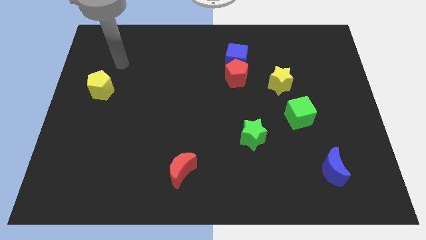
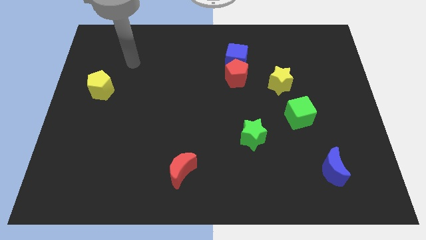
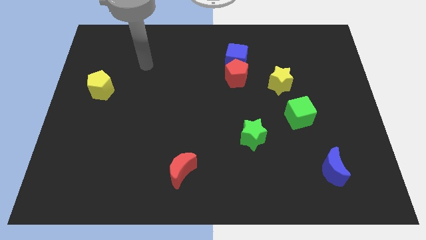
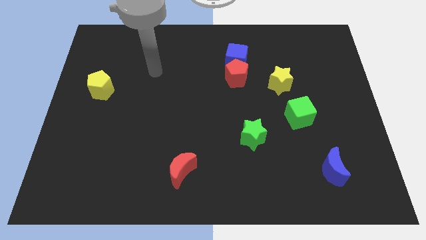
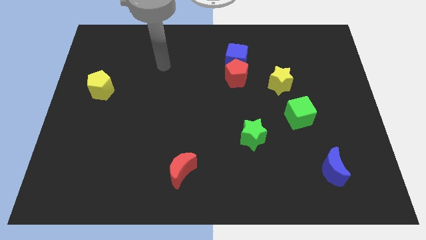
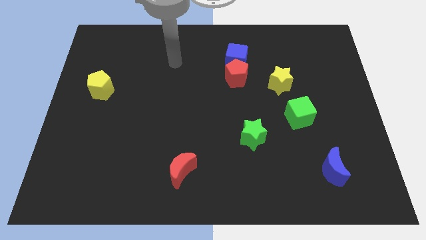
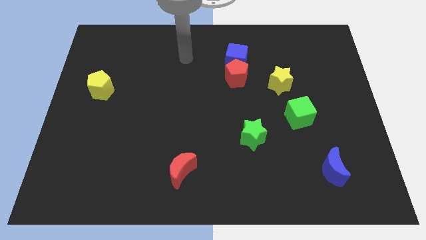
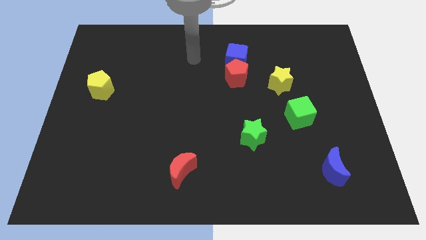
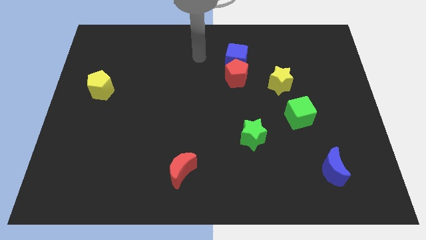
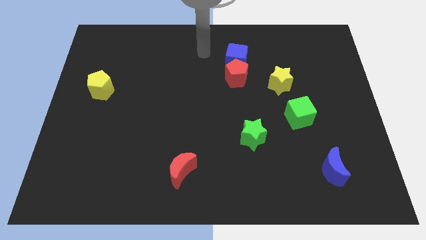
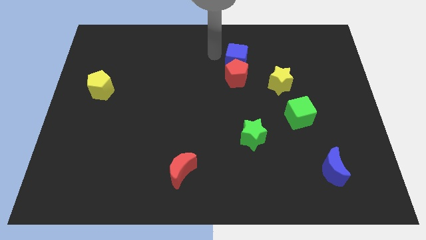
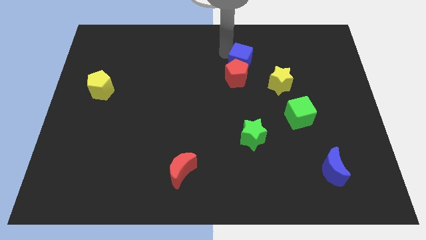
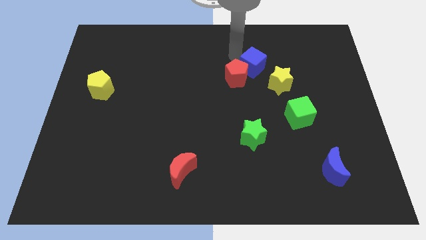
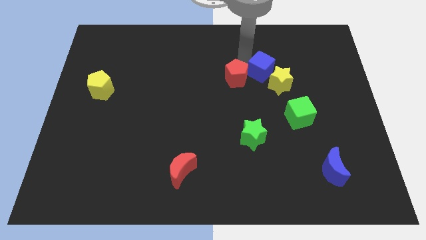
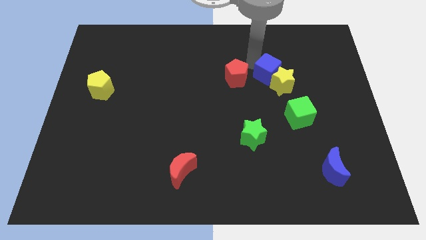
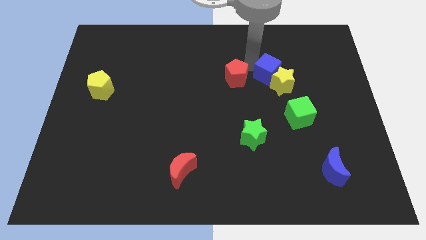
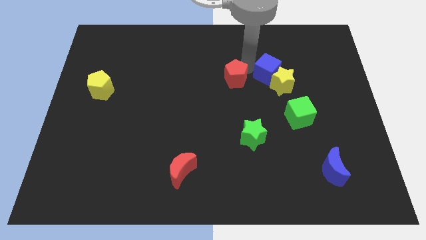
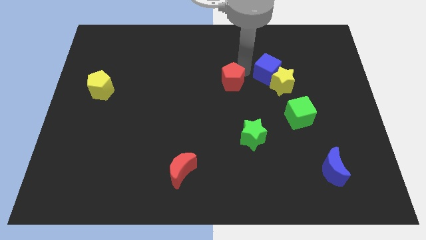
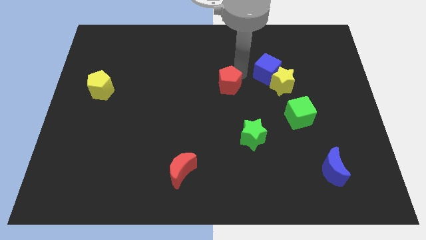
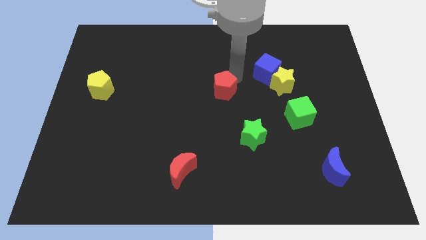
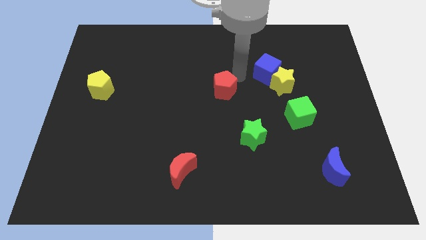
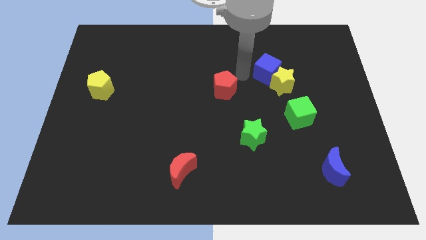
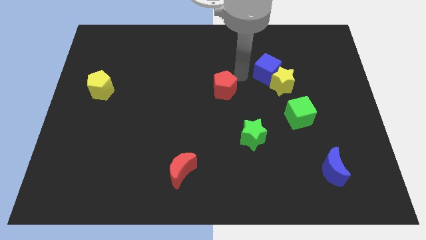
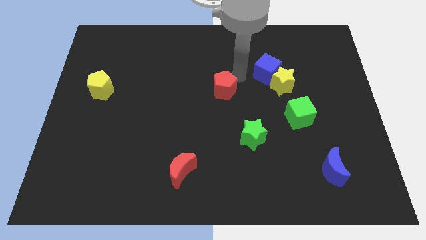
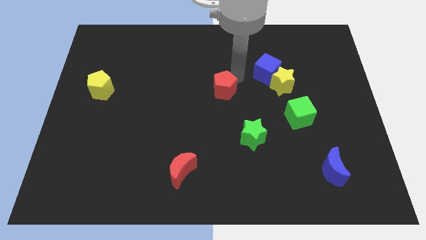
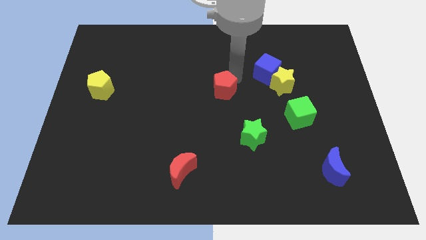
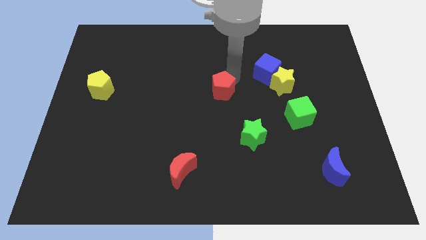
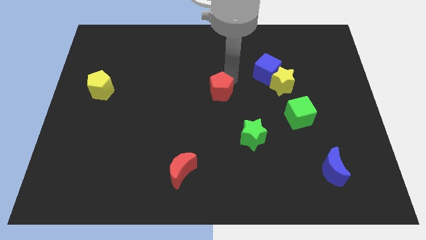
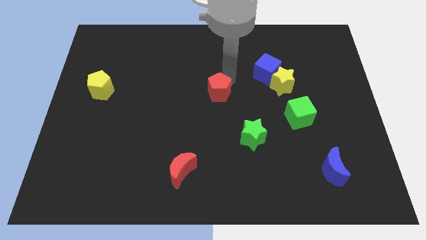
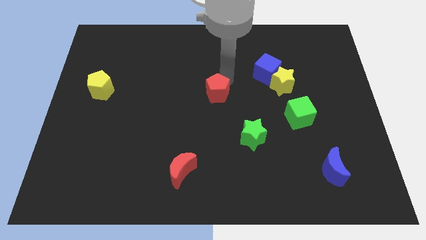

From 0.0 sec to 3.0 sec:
slightly push the red pentagon down and then left

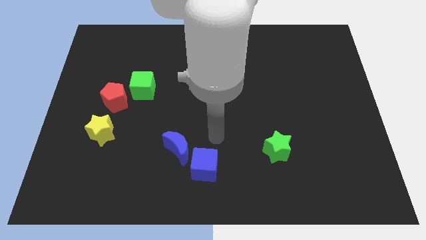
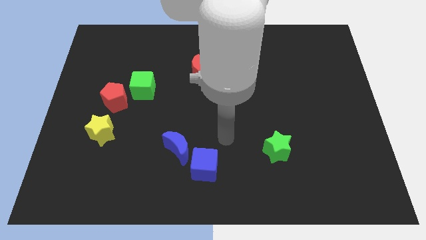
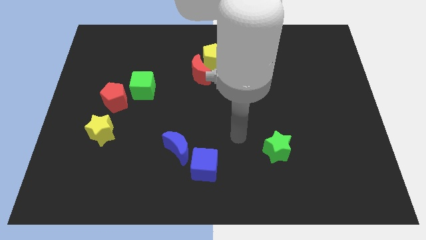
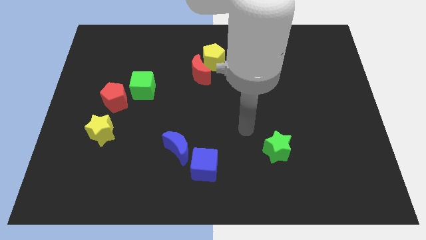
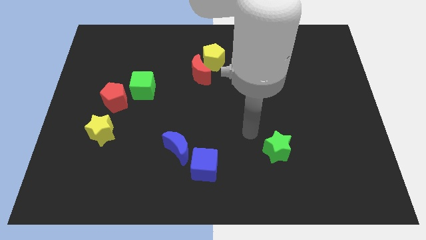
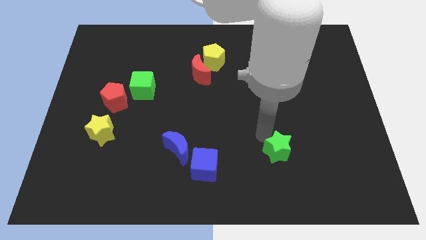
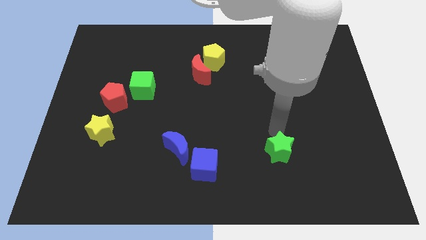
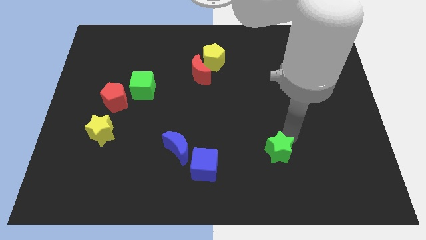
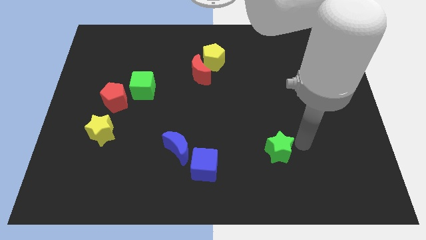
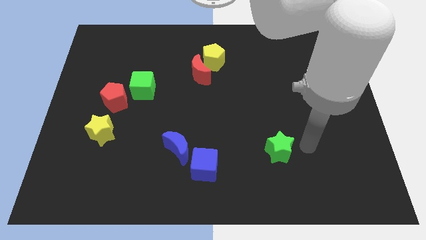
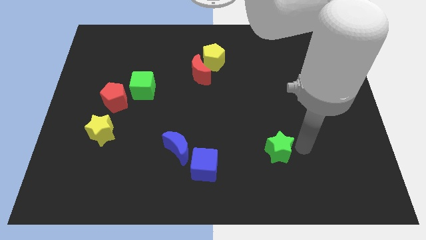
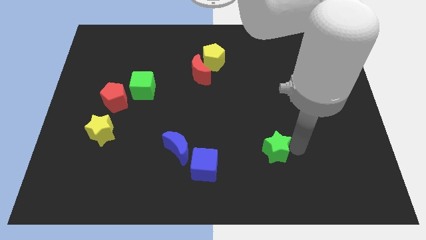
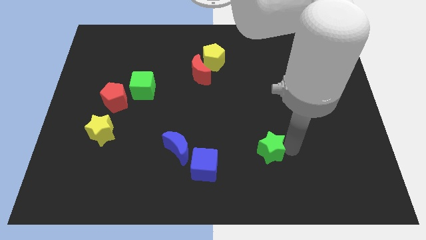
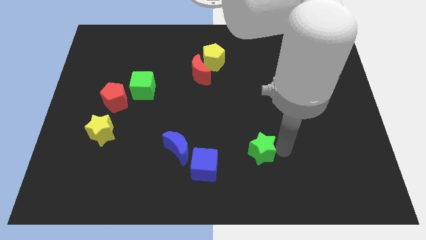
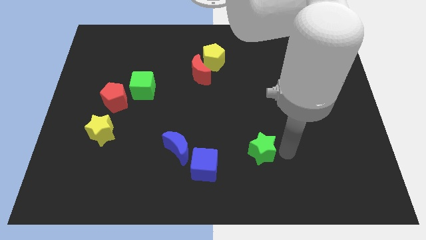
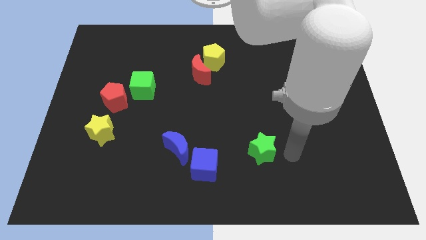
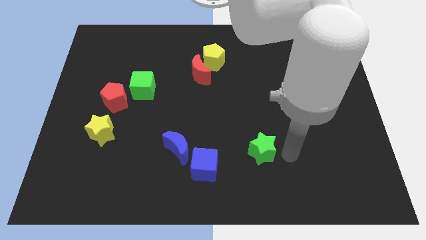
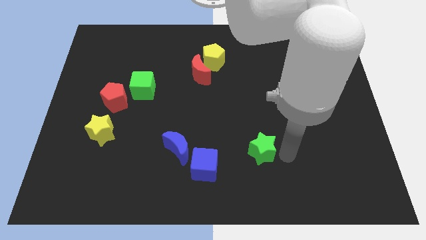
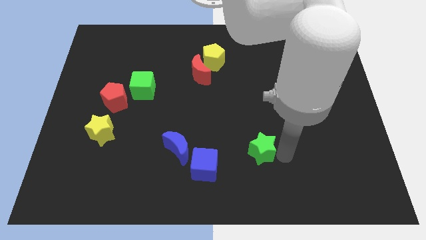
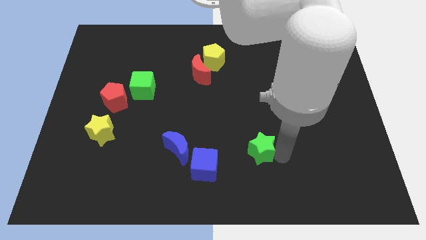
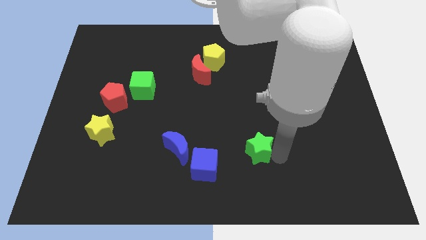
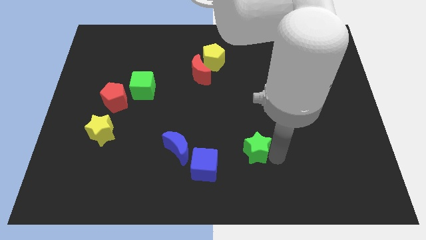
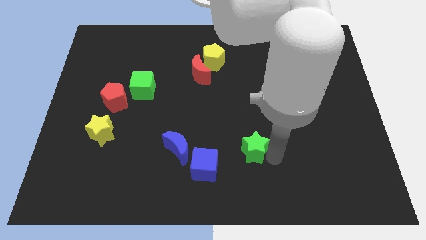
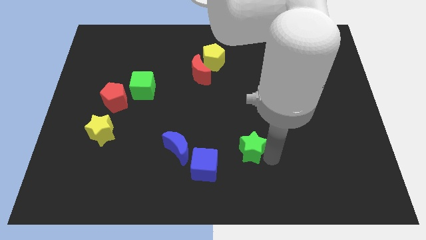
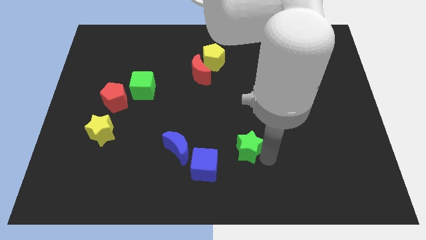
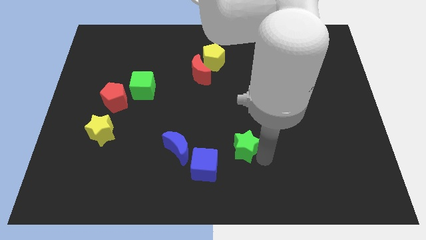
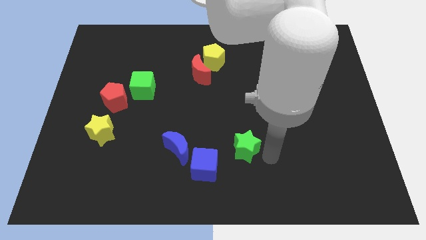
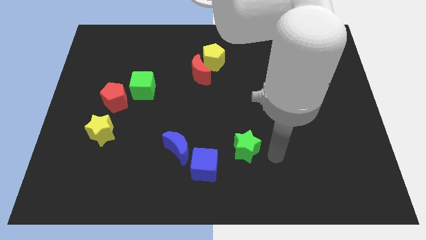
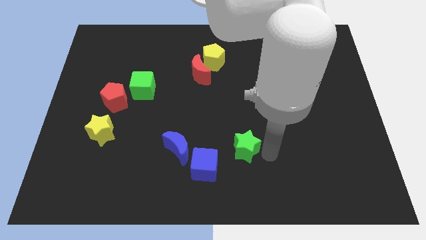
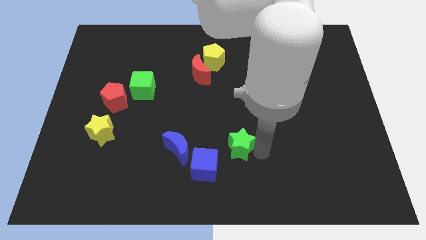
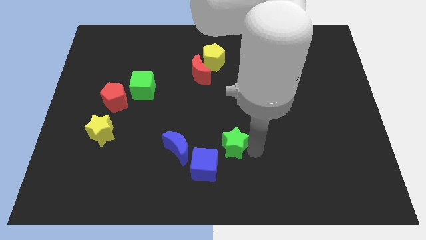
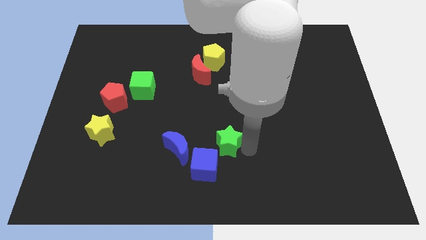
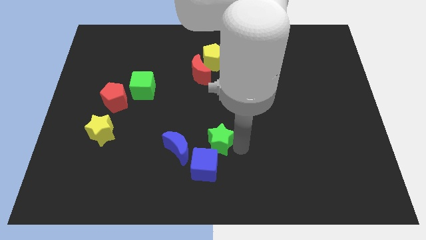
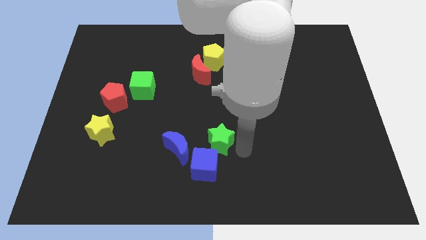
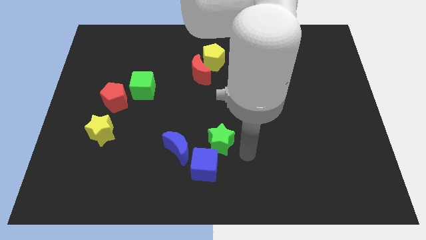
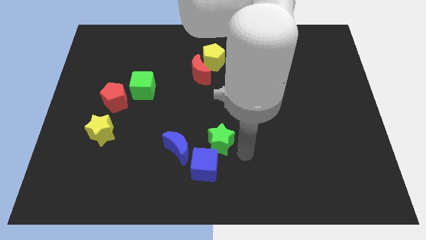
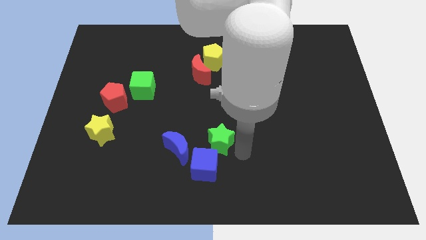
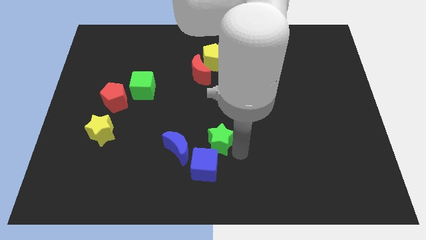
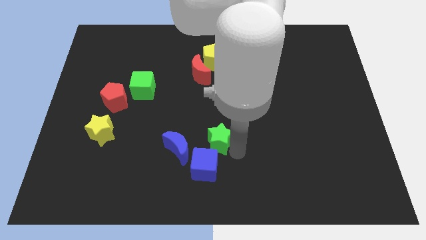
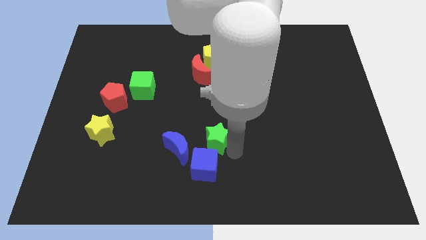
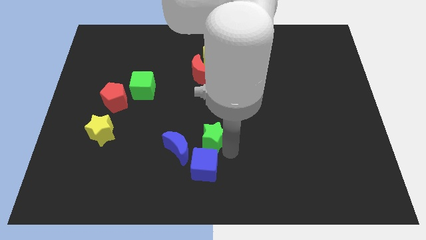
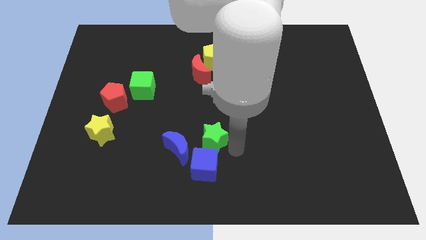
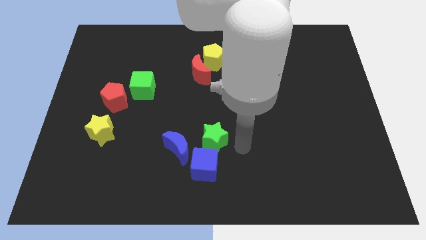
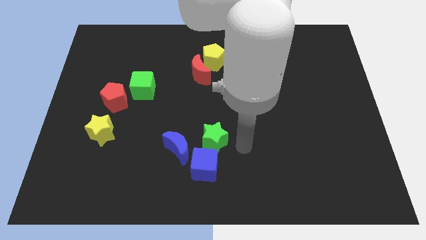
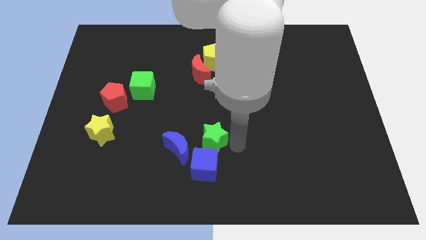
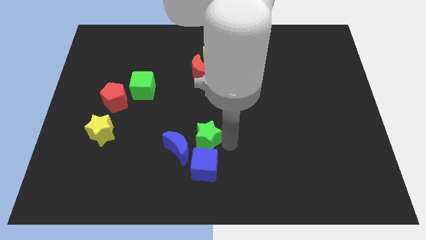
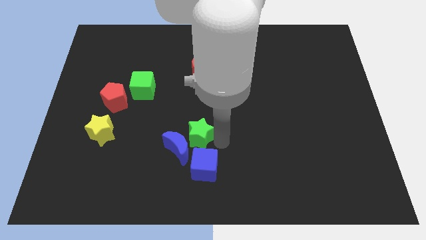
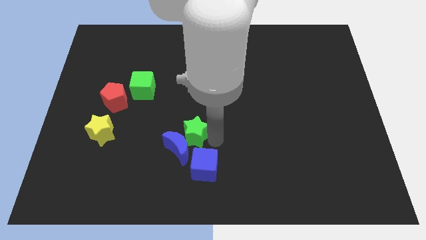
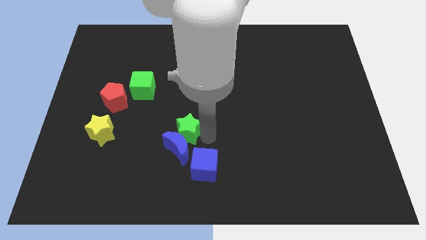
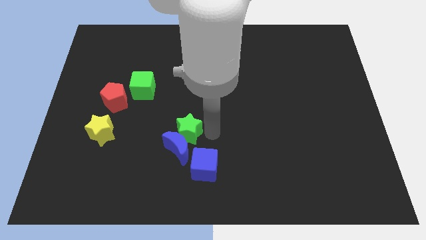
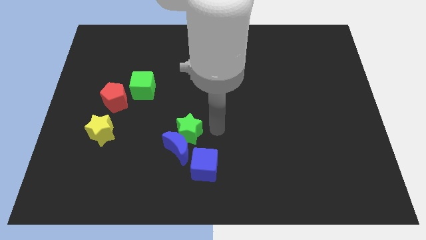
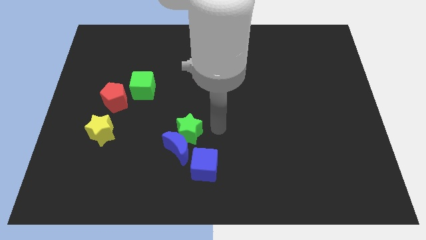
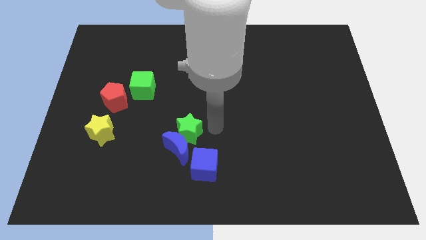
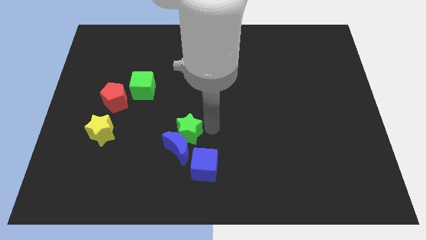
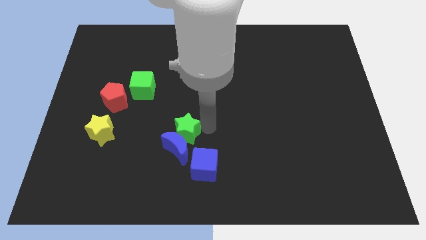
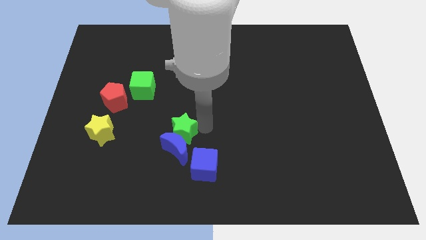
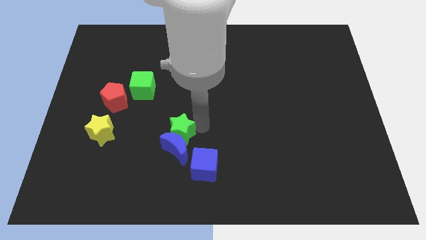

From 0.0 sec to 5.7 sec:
slide the green star to the left
